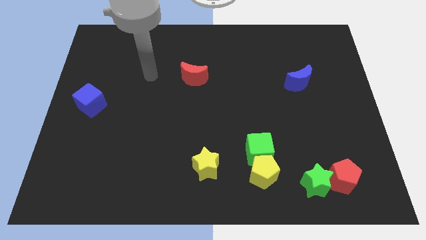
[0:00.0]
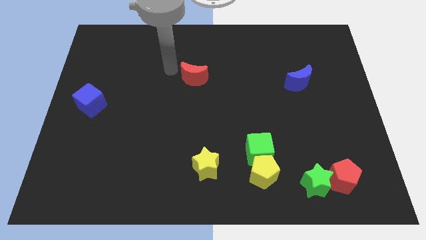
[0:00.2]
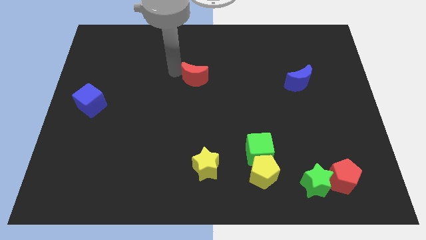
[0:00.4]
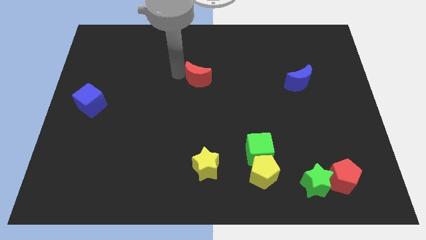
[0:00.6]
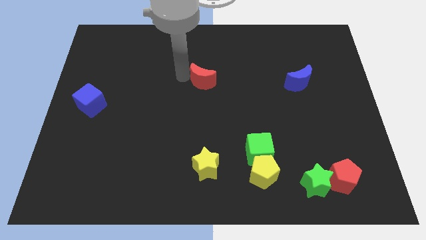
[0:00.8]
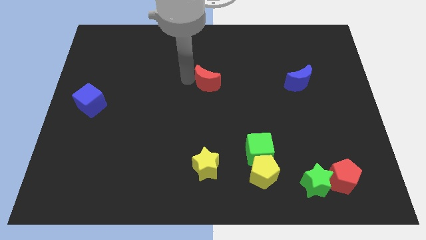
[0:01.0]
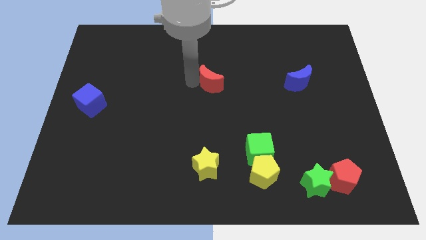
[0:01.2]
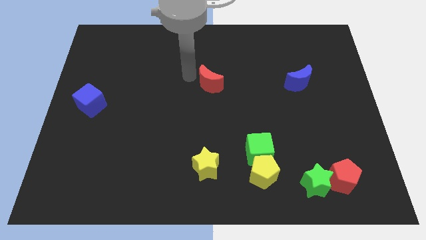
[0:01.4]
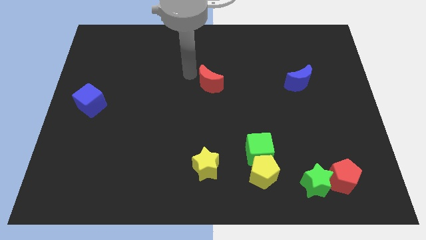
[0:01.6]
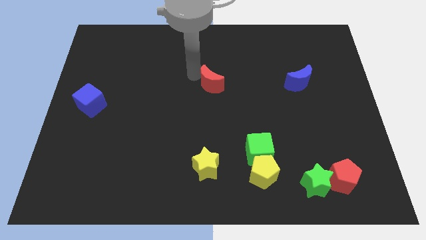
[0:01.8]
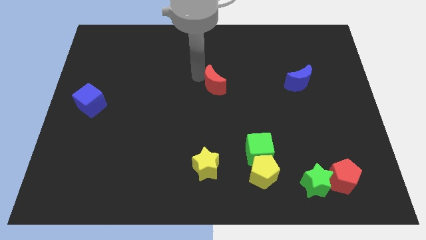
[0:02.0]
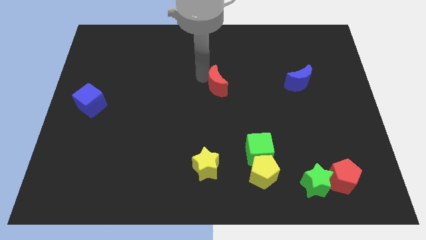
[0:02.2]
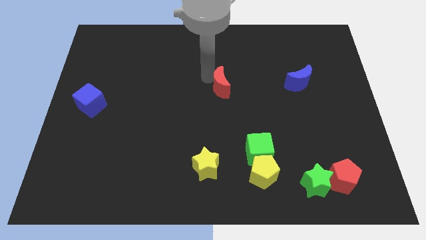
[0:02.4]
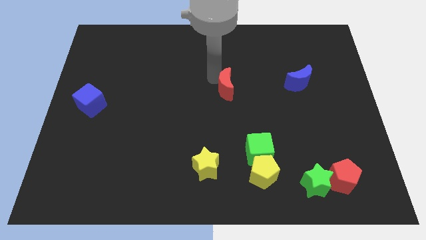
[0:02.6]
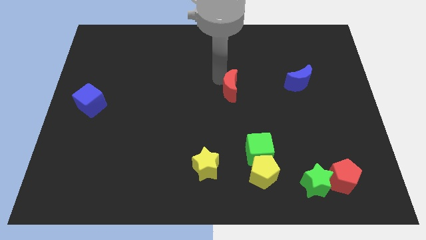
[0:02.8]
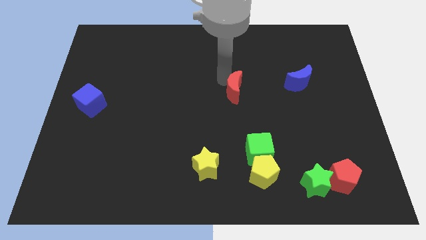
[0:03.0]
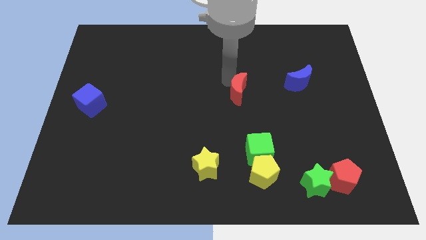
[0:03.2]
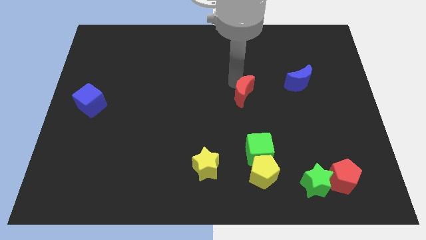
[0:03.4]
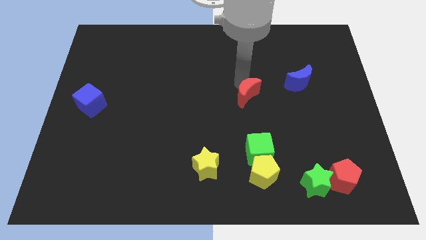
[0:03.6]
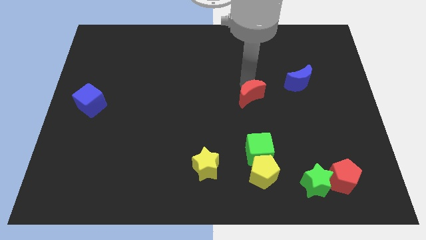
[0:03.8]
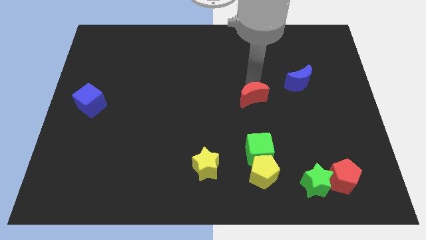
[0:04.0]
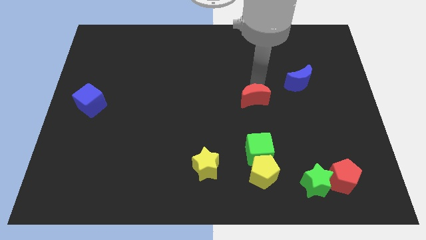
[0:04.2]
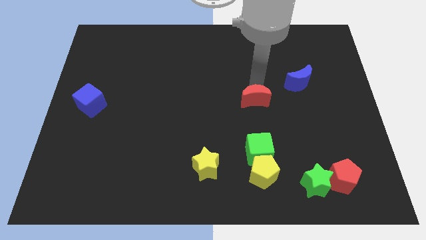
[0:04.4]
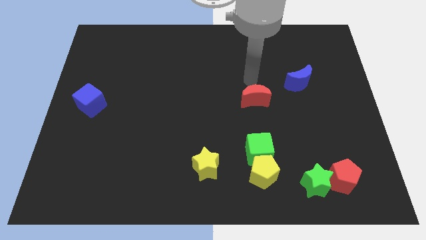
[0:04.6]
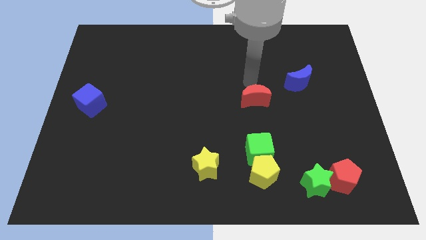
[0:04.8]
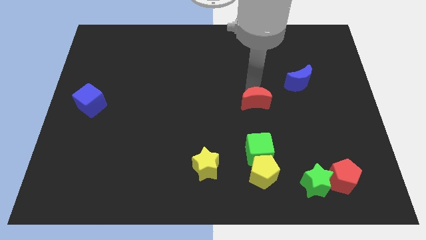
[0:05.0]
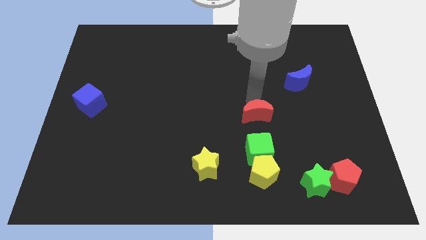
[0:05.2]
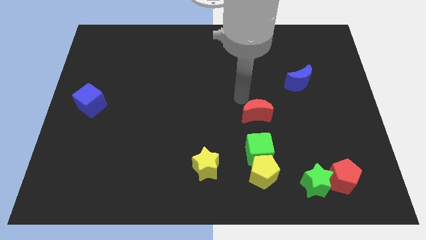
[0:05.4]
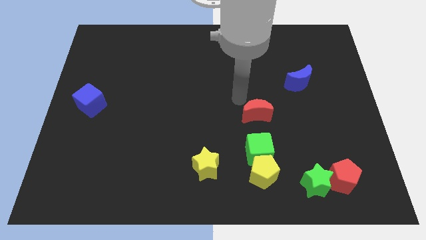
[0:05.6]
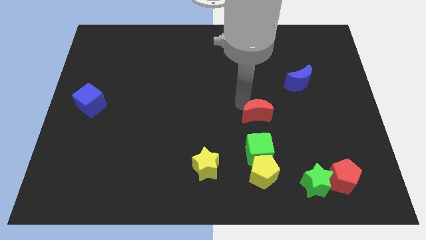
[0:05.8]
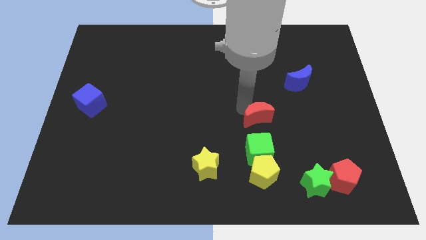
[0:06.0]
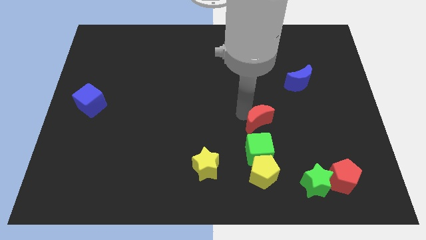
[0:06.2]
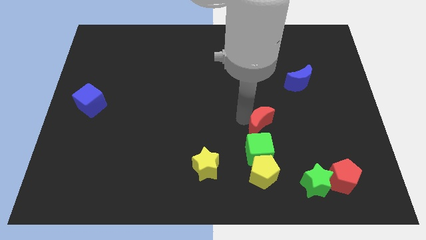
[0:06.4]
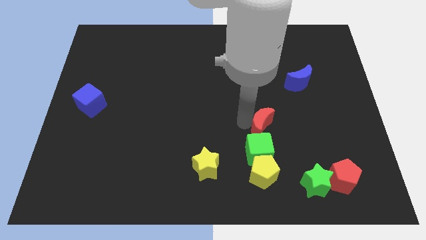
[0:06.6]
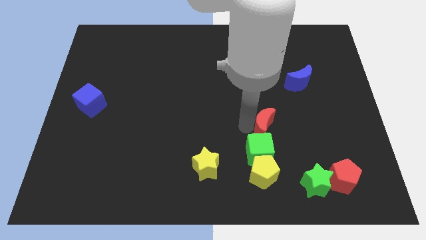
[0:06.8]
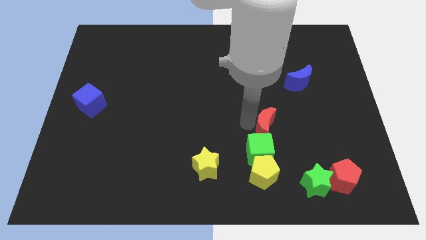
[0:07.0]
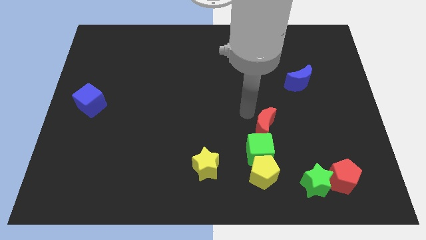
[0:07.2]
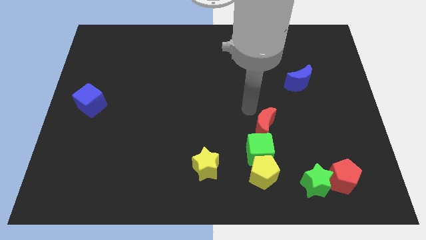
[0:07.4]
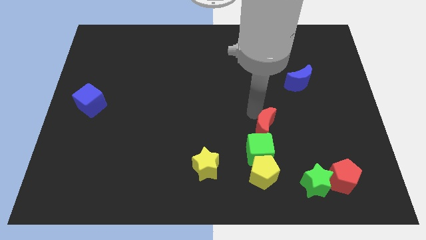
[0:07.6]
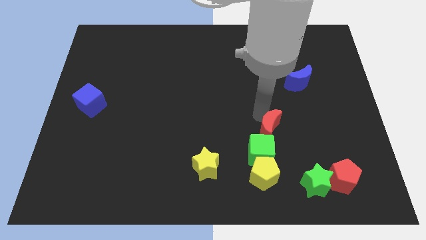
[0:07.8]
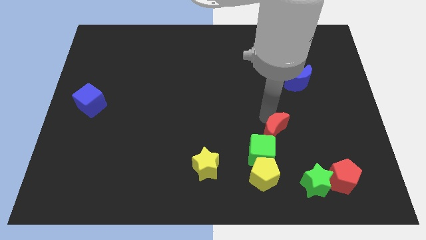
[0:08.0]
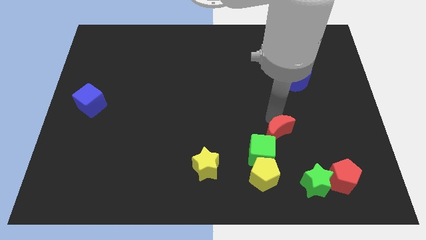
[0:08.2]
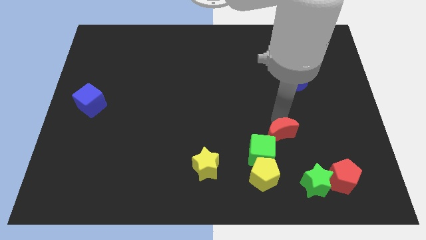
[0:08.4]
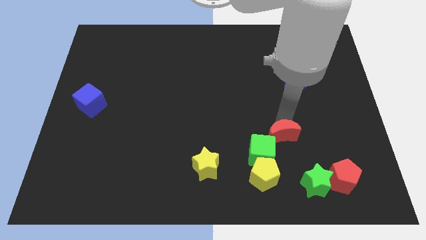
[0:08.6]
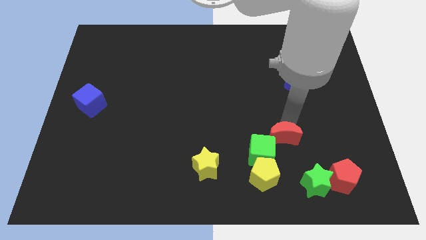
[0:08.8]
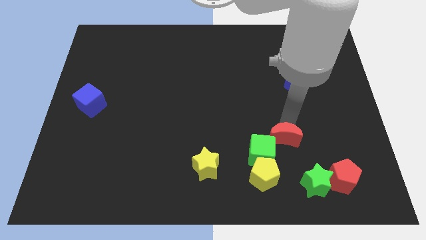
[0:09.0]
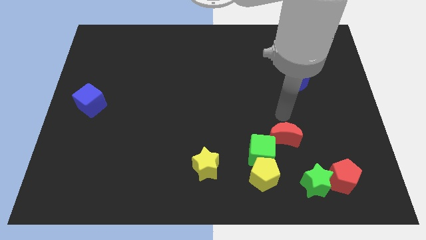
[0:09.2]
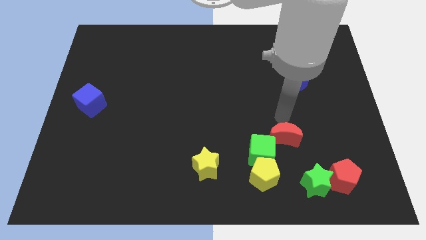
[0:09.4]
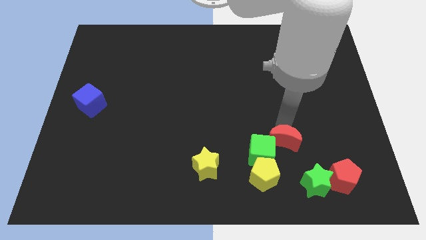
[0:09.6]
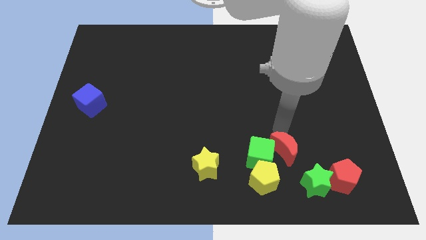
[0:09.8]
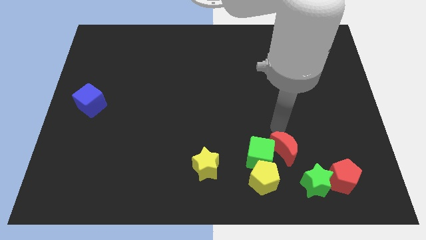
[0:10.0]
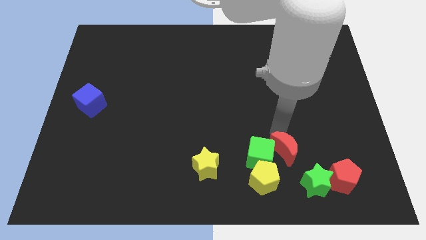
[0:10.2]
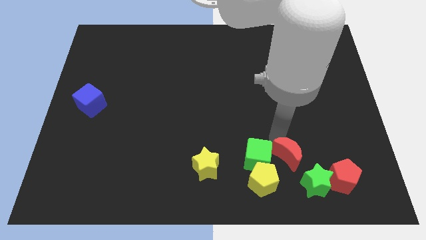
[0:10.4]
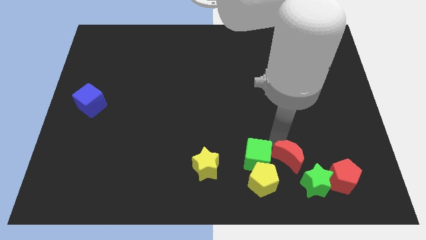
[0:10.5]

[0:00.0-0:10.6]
slide the red moon just left of the red pentagon

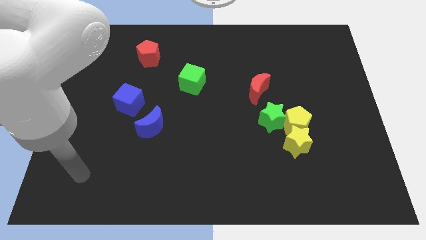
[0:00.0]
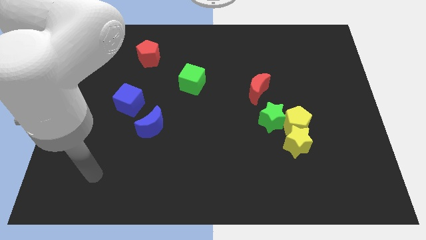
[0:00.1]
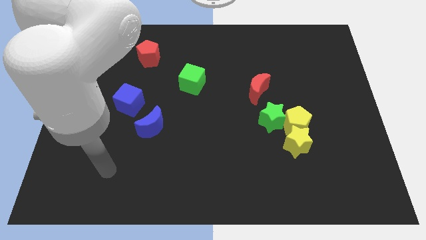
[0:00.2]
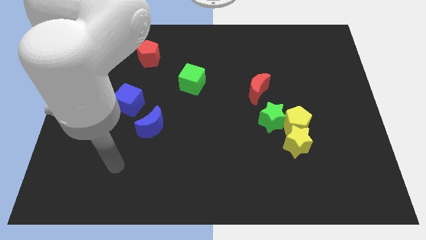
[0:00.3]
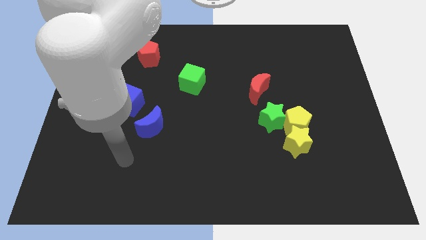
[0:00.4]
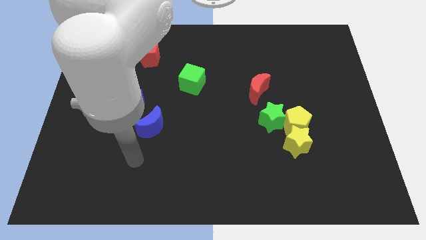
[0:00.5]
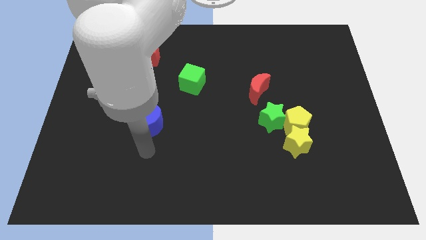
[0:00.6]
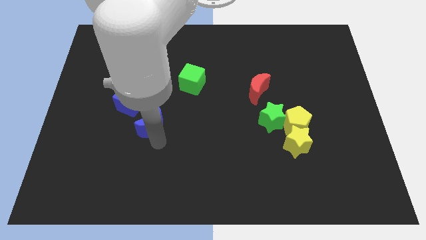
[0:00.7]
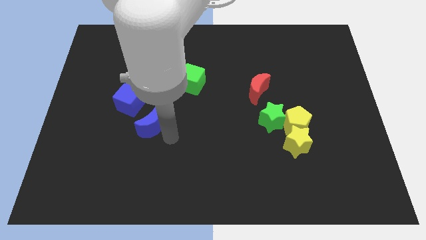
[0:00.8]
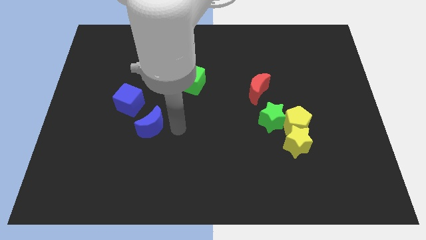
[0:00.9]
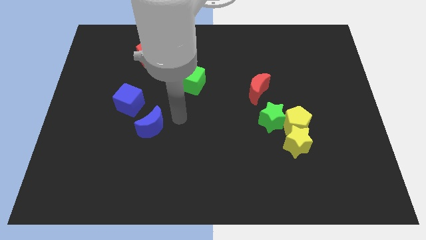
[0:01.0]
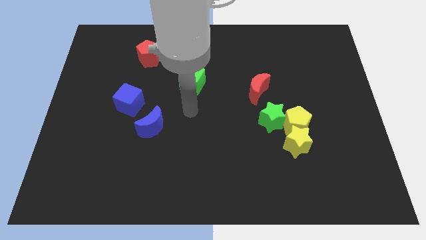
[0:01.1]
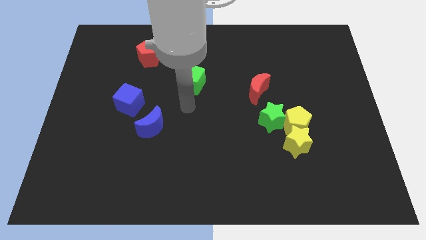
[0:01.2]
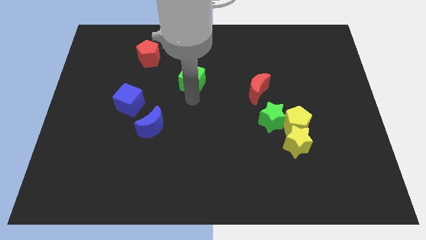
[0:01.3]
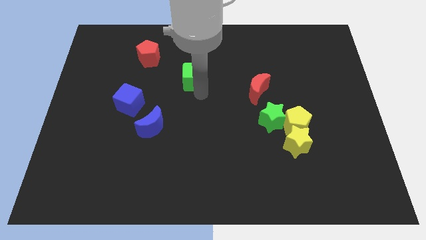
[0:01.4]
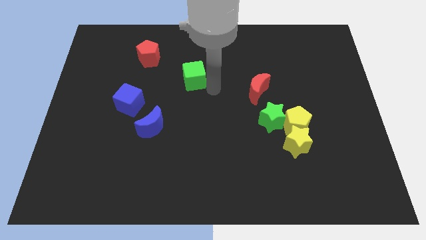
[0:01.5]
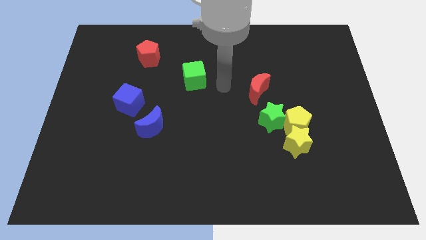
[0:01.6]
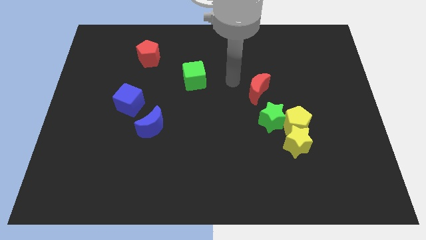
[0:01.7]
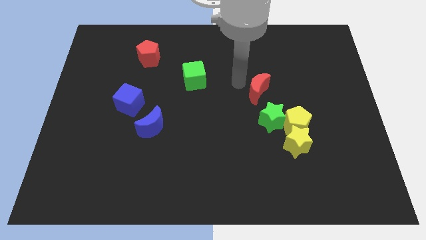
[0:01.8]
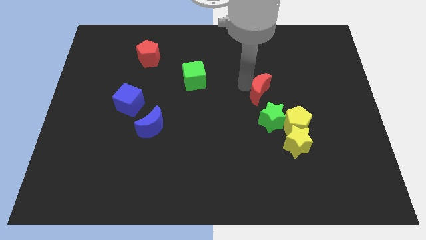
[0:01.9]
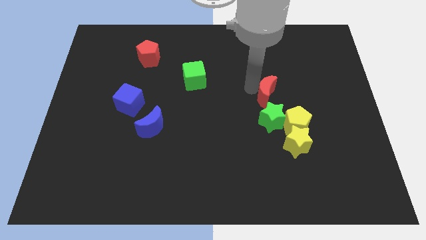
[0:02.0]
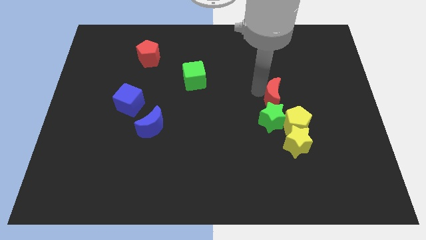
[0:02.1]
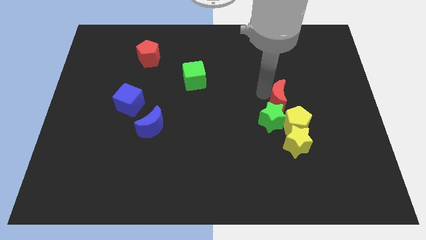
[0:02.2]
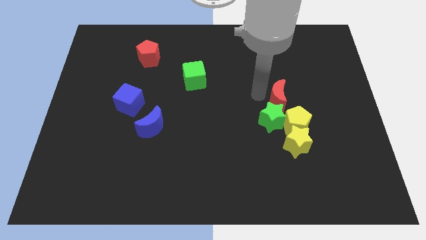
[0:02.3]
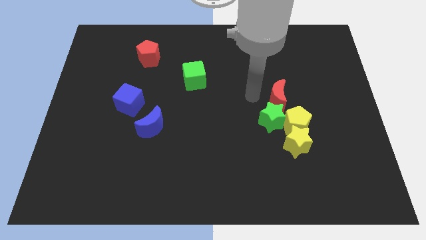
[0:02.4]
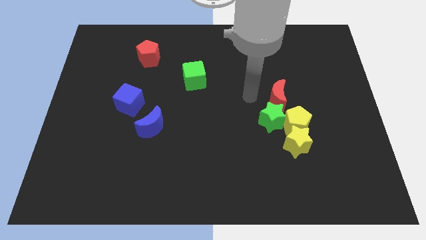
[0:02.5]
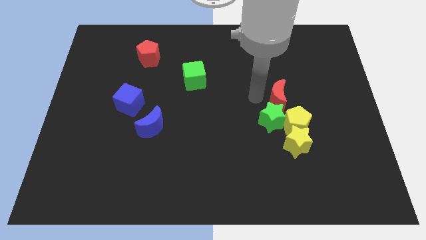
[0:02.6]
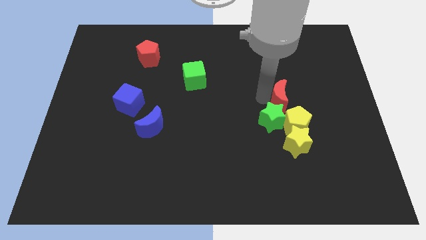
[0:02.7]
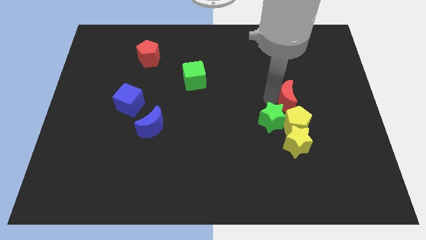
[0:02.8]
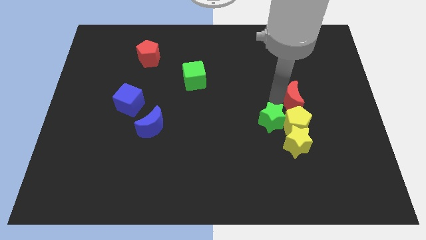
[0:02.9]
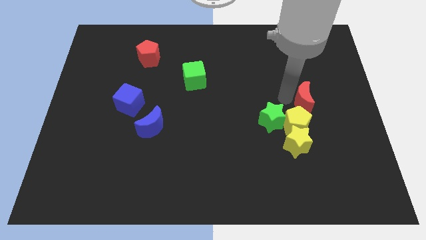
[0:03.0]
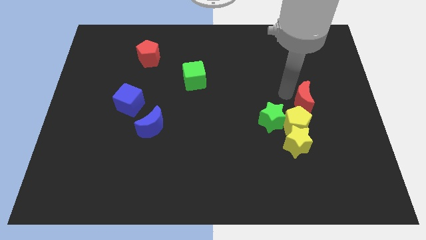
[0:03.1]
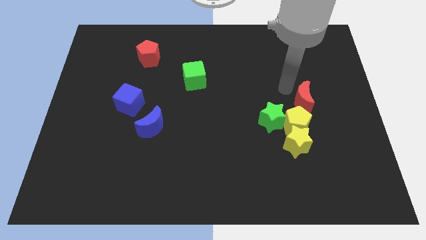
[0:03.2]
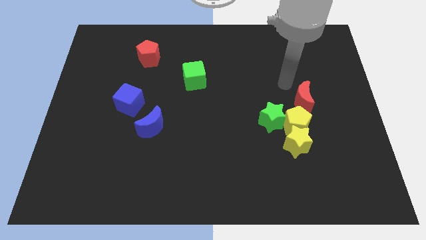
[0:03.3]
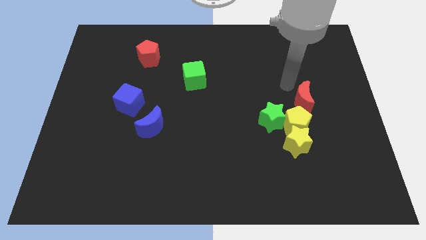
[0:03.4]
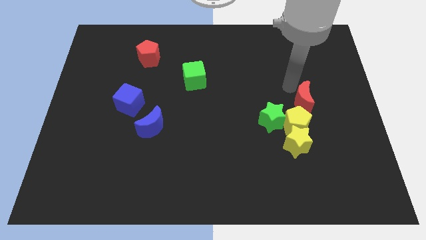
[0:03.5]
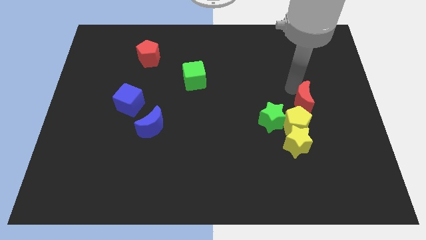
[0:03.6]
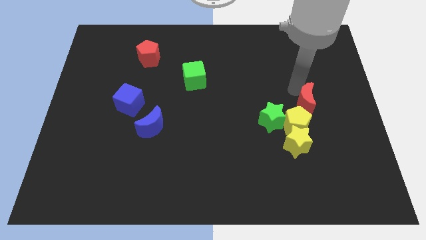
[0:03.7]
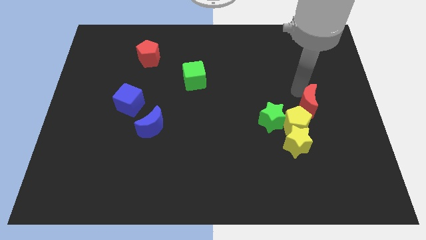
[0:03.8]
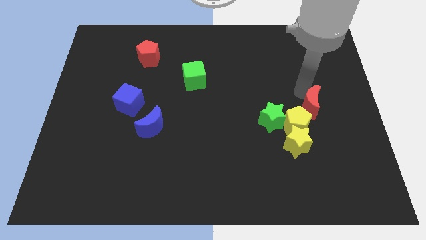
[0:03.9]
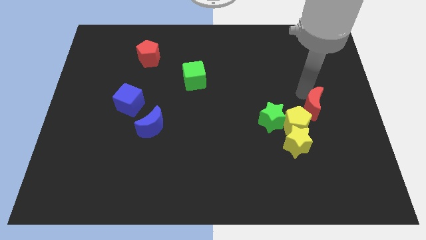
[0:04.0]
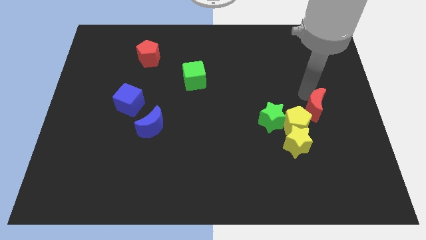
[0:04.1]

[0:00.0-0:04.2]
put the red moon right of the yellow pentagon
